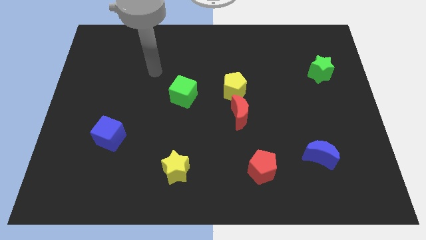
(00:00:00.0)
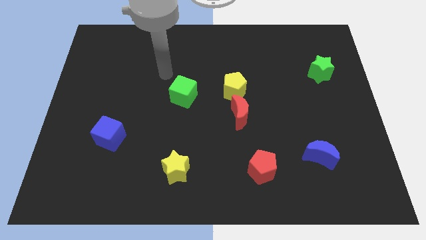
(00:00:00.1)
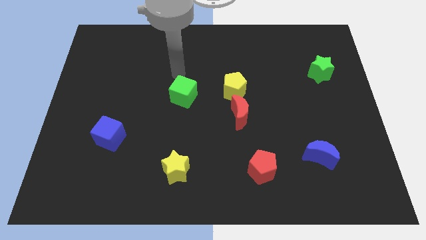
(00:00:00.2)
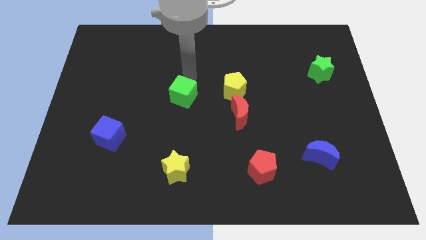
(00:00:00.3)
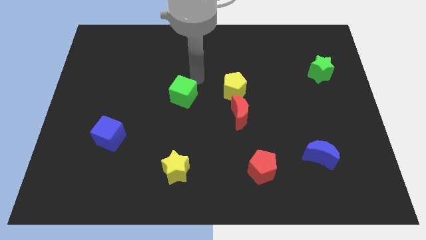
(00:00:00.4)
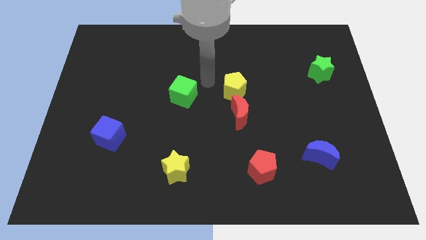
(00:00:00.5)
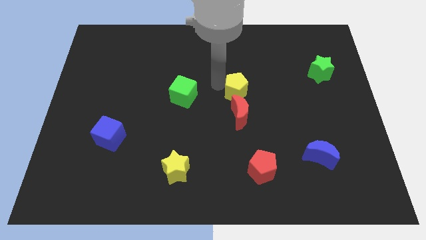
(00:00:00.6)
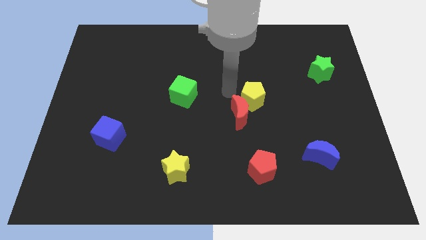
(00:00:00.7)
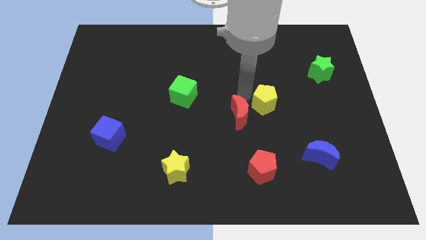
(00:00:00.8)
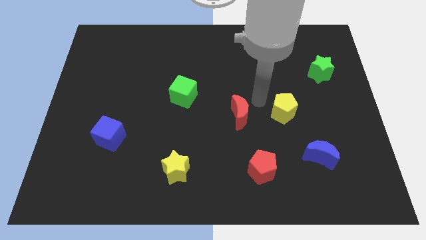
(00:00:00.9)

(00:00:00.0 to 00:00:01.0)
move the red moon away from the yellow pentagon

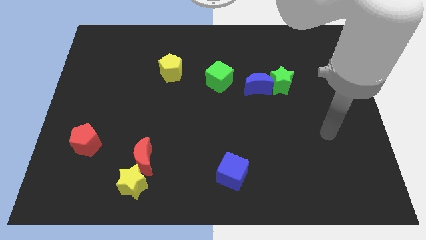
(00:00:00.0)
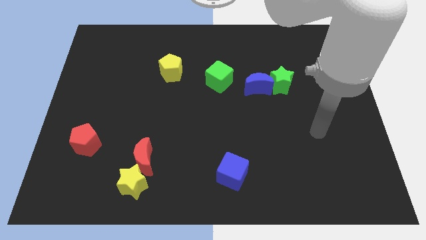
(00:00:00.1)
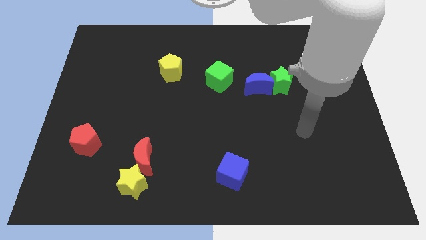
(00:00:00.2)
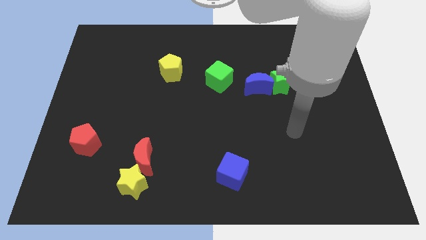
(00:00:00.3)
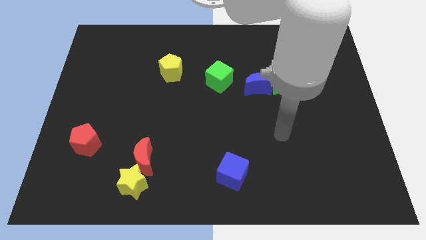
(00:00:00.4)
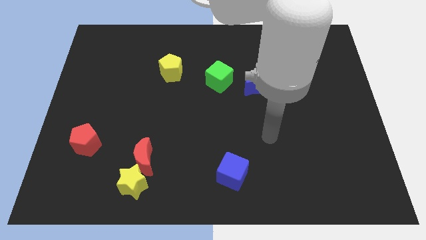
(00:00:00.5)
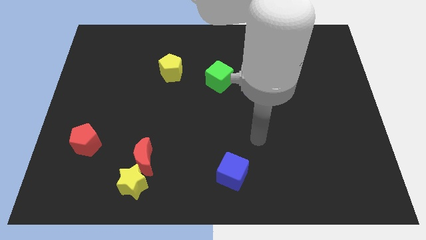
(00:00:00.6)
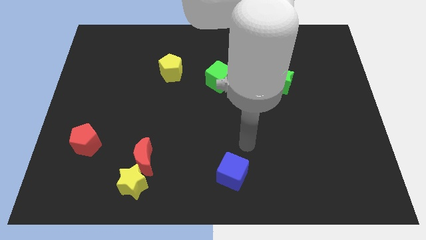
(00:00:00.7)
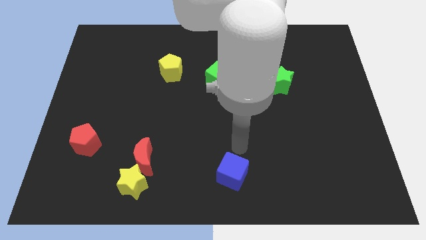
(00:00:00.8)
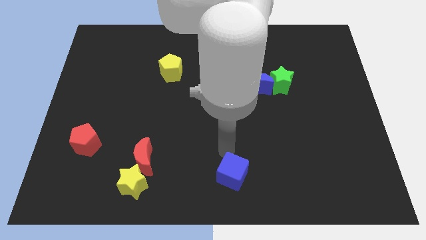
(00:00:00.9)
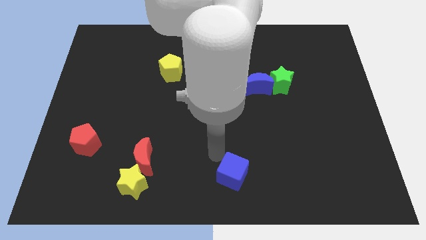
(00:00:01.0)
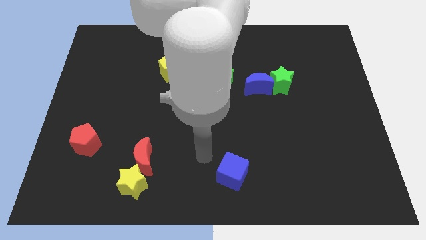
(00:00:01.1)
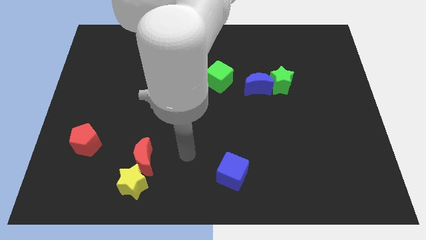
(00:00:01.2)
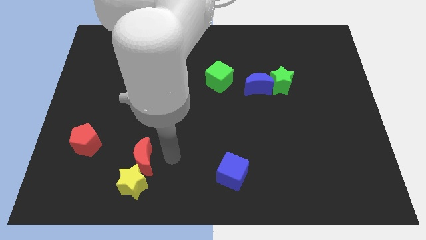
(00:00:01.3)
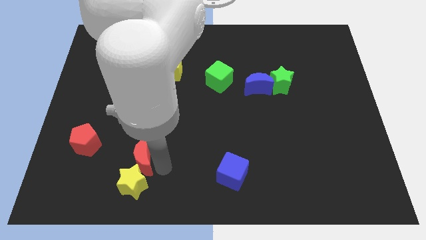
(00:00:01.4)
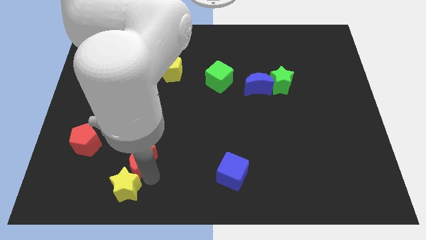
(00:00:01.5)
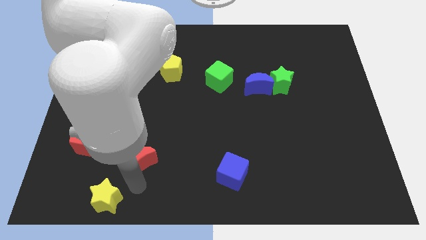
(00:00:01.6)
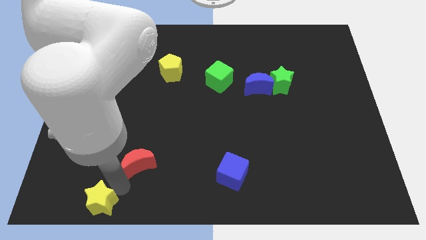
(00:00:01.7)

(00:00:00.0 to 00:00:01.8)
pull the red moon apart from the yellow star

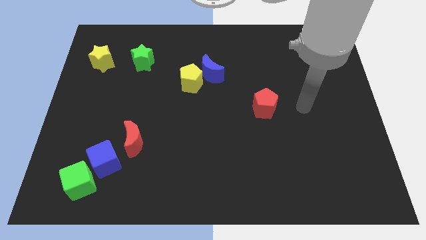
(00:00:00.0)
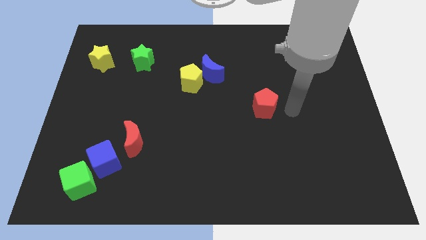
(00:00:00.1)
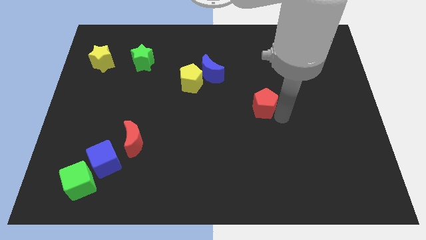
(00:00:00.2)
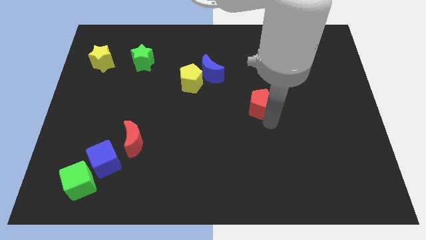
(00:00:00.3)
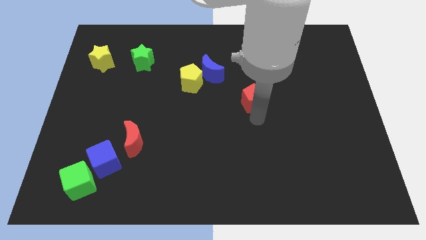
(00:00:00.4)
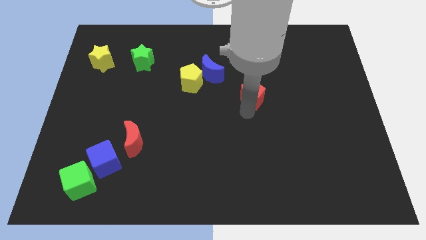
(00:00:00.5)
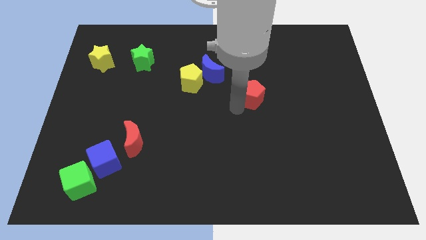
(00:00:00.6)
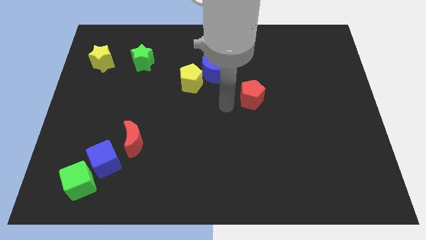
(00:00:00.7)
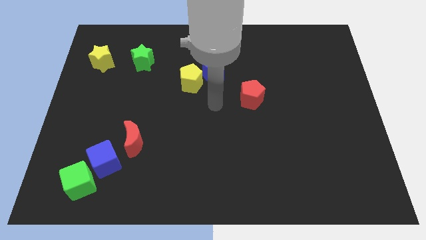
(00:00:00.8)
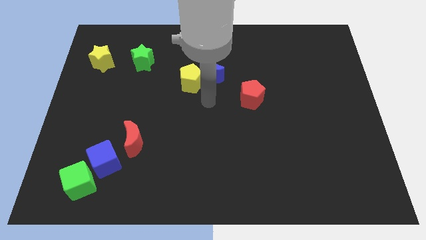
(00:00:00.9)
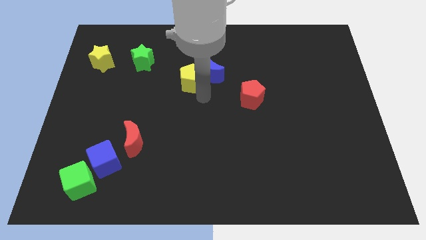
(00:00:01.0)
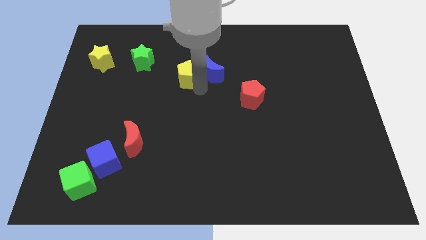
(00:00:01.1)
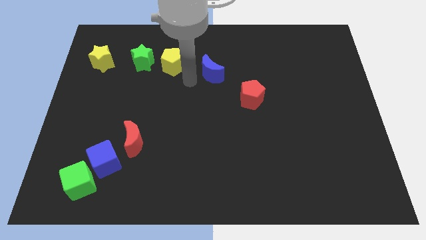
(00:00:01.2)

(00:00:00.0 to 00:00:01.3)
pull the blue moon apart from the yellow pentagon

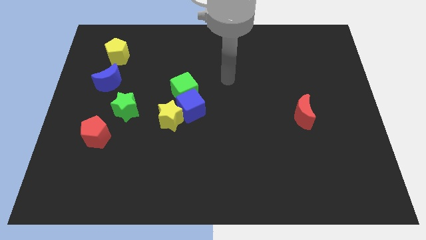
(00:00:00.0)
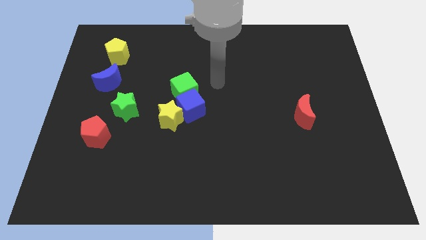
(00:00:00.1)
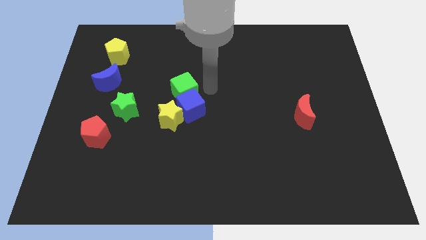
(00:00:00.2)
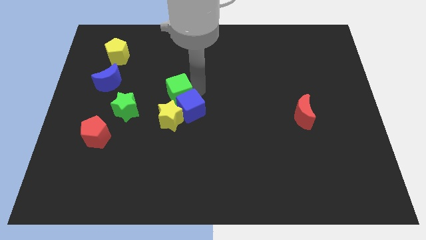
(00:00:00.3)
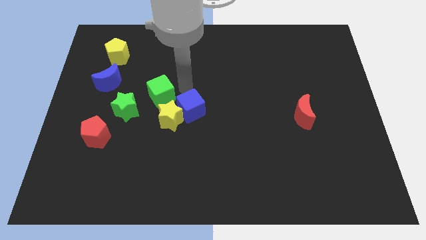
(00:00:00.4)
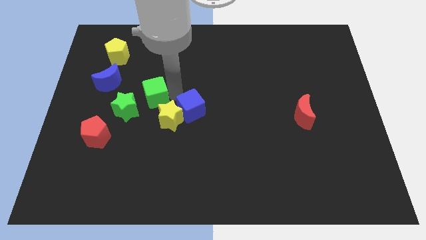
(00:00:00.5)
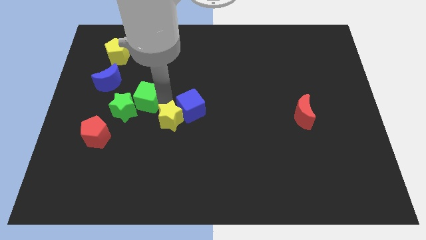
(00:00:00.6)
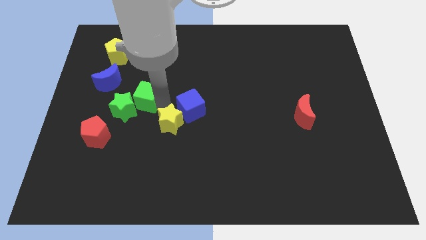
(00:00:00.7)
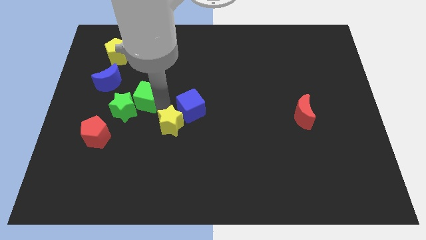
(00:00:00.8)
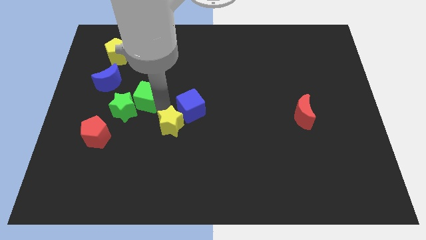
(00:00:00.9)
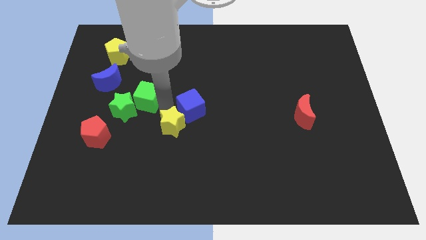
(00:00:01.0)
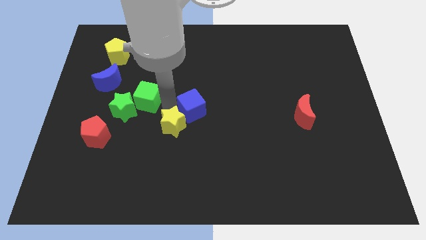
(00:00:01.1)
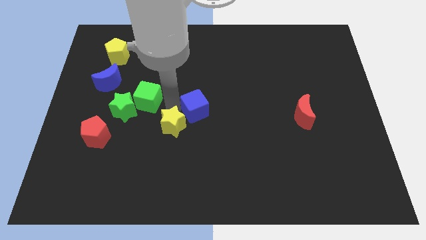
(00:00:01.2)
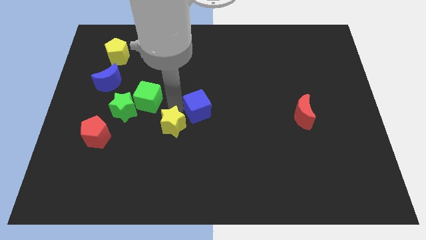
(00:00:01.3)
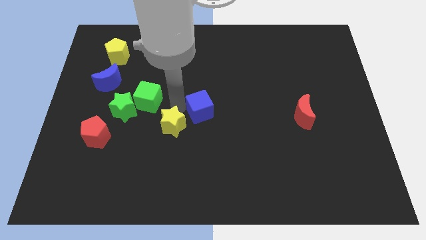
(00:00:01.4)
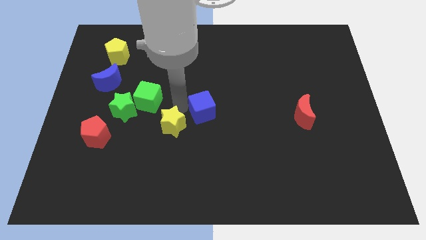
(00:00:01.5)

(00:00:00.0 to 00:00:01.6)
move the blue cube away from the green cube and yellow star

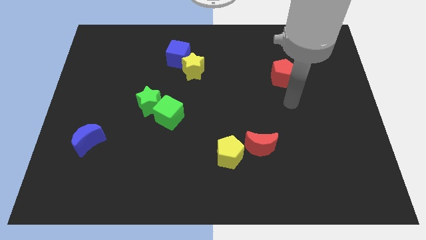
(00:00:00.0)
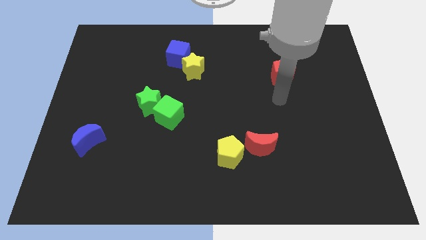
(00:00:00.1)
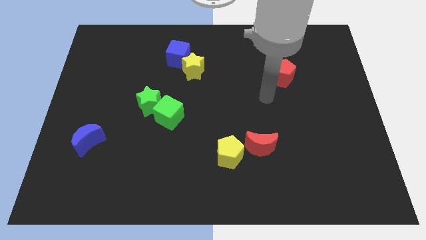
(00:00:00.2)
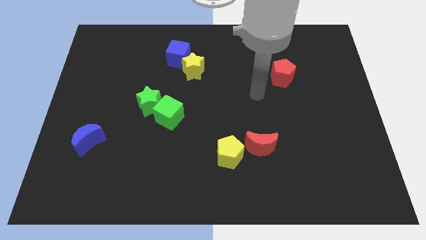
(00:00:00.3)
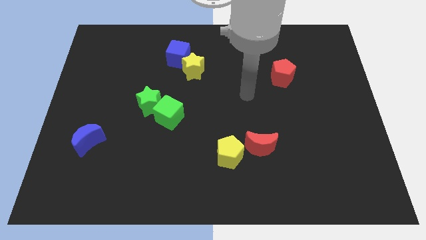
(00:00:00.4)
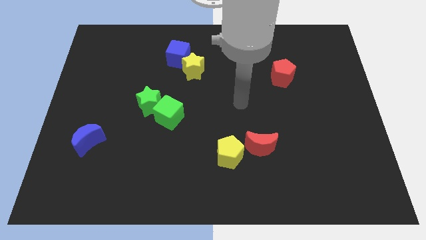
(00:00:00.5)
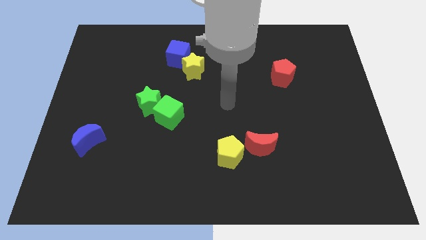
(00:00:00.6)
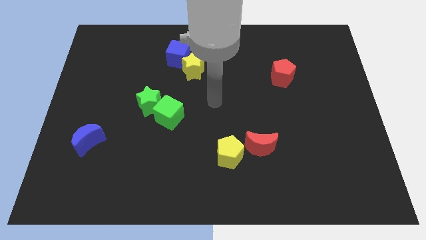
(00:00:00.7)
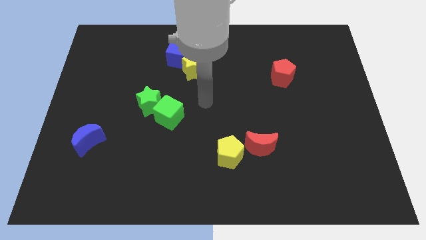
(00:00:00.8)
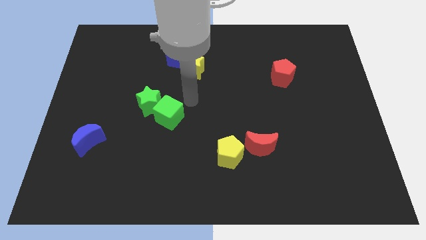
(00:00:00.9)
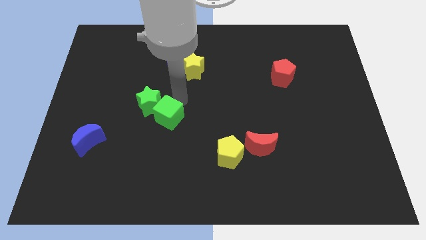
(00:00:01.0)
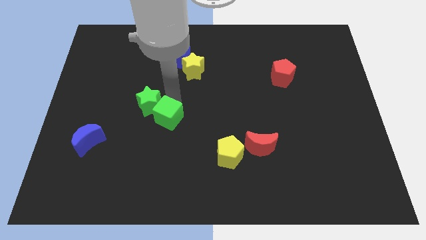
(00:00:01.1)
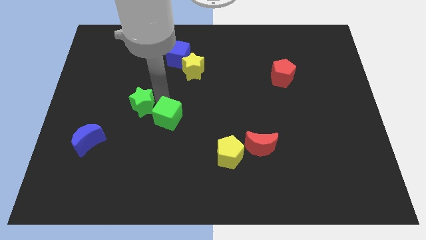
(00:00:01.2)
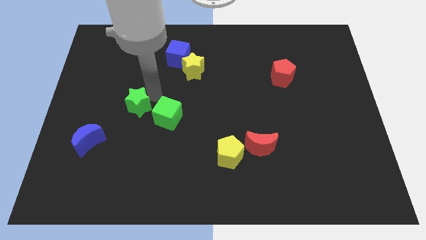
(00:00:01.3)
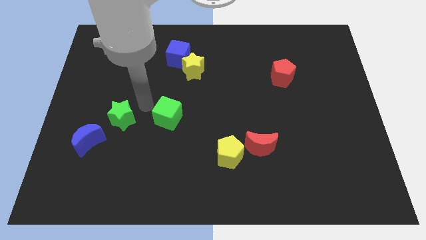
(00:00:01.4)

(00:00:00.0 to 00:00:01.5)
pull the green cube apart from the green star

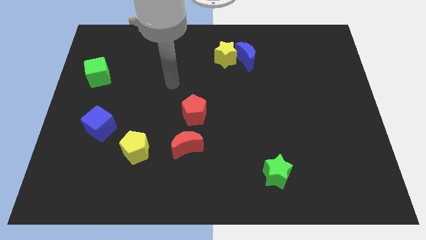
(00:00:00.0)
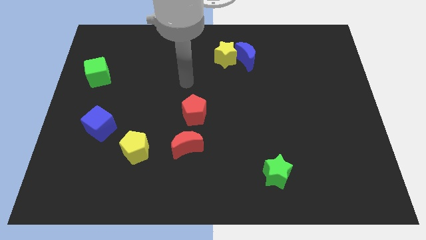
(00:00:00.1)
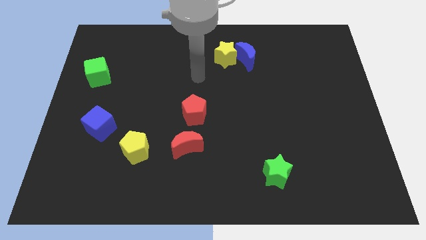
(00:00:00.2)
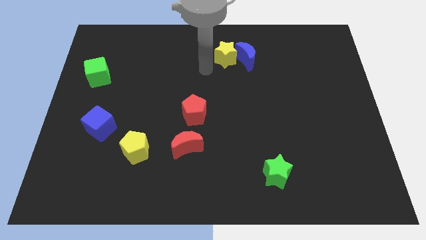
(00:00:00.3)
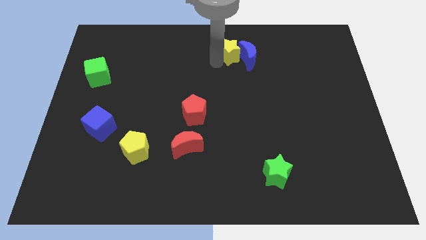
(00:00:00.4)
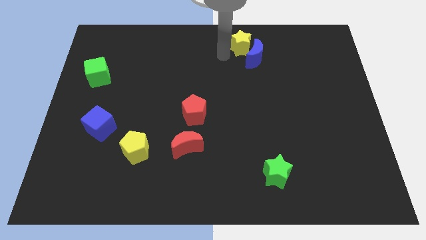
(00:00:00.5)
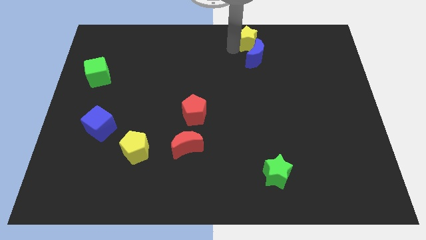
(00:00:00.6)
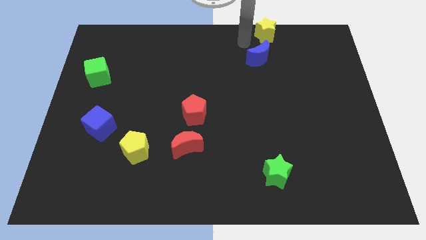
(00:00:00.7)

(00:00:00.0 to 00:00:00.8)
separate the blue moon from the yellow star

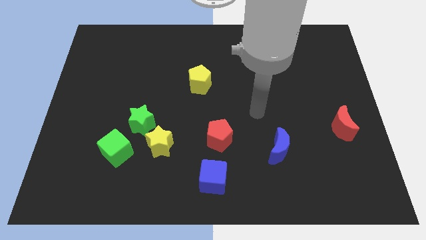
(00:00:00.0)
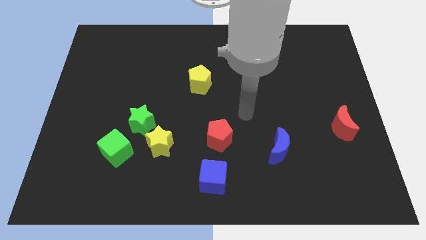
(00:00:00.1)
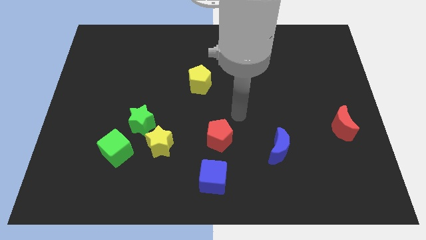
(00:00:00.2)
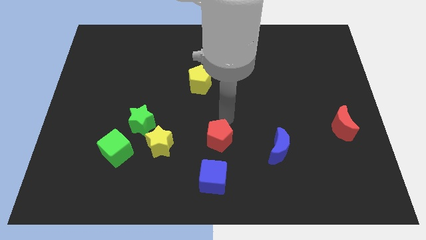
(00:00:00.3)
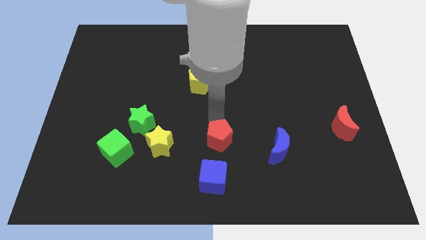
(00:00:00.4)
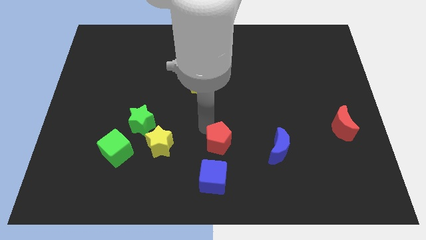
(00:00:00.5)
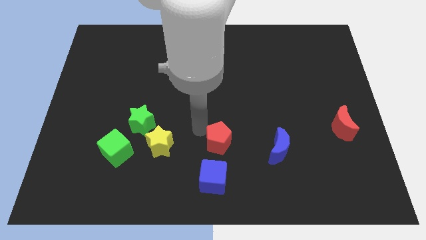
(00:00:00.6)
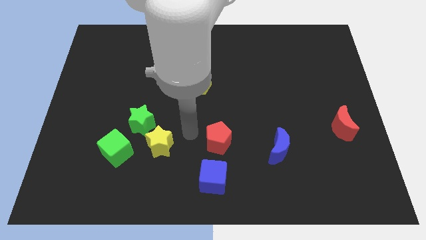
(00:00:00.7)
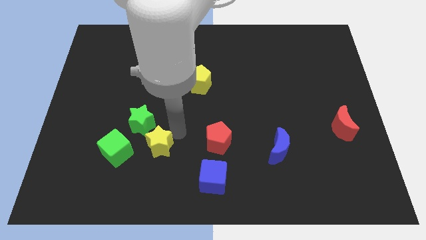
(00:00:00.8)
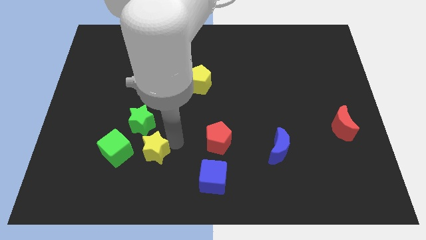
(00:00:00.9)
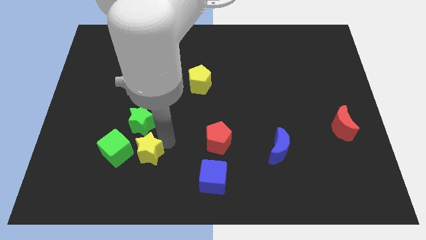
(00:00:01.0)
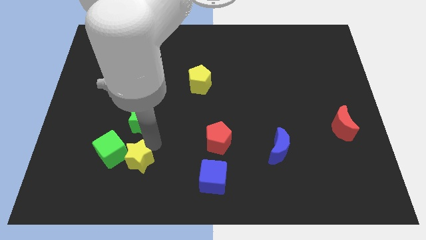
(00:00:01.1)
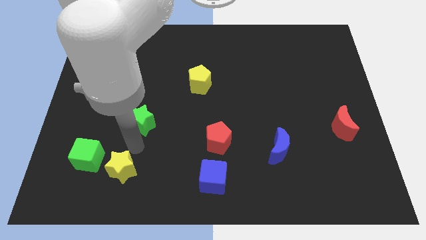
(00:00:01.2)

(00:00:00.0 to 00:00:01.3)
move the green star away from the yellow star and green cube
